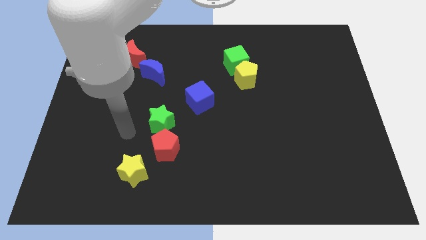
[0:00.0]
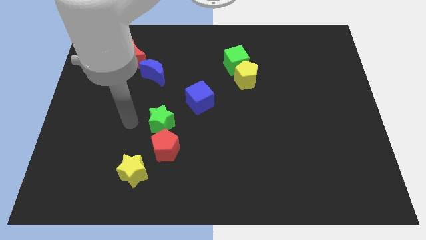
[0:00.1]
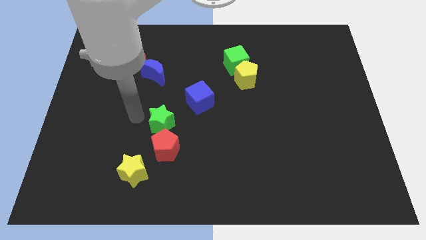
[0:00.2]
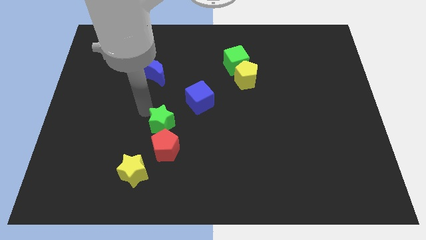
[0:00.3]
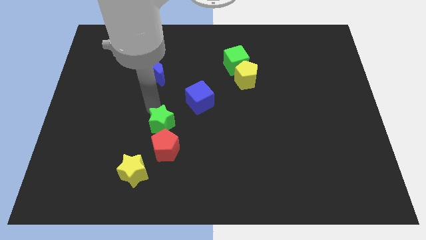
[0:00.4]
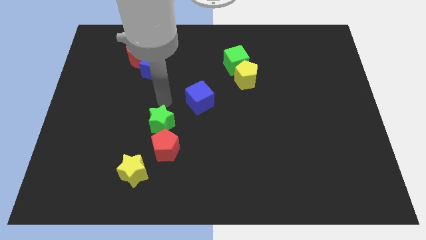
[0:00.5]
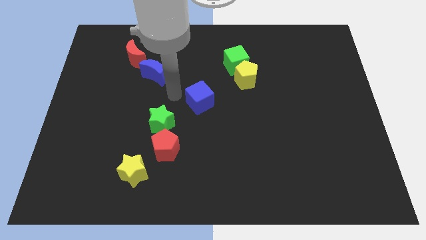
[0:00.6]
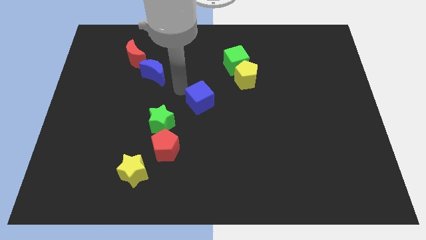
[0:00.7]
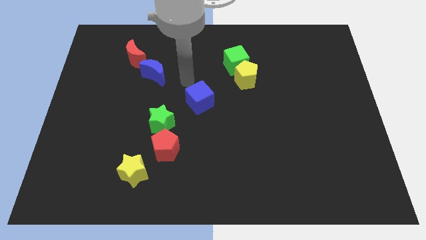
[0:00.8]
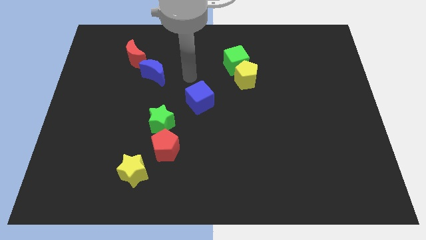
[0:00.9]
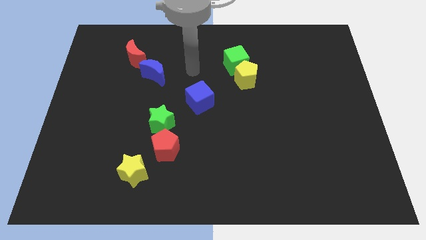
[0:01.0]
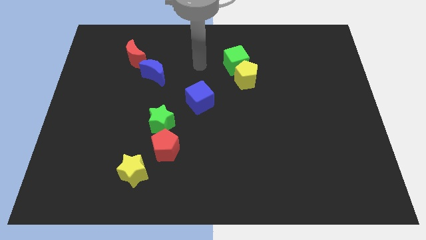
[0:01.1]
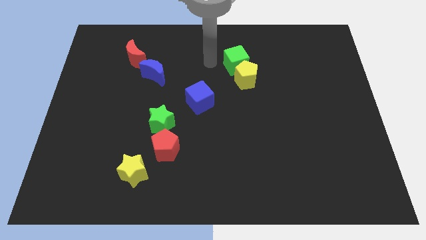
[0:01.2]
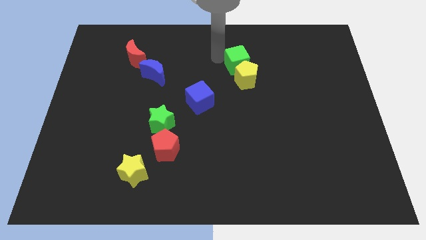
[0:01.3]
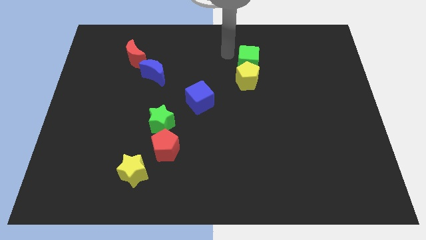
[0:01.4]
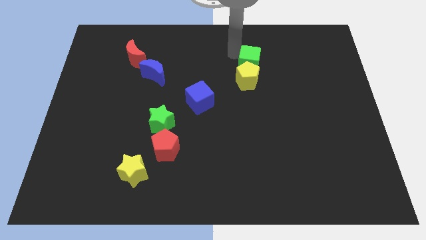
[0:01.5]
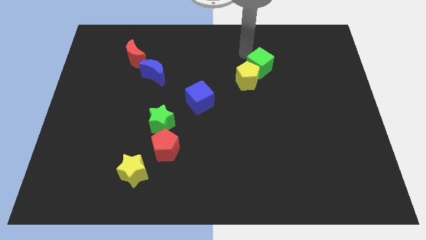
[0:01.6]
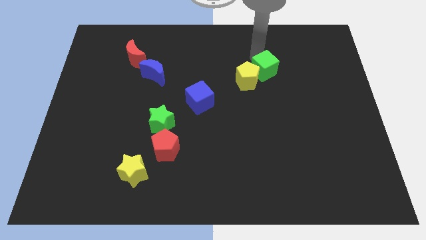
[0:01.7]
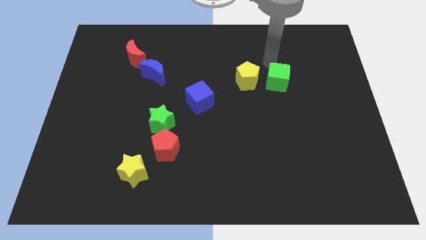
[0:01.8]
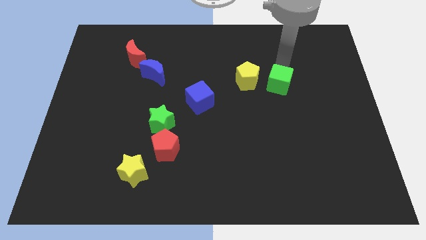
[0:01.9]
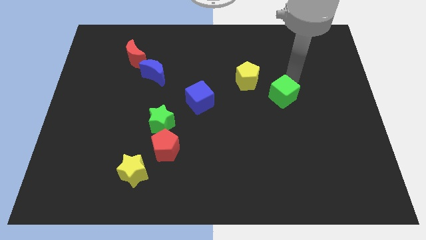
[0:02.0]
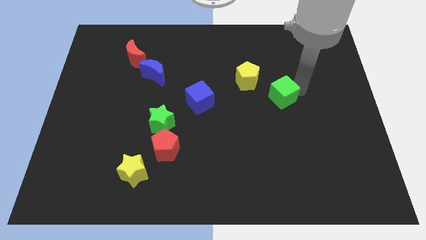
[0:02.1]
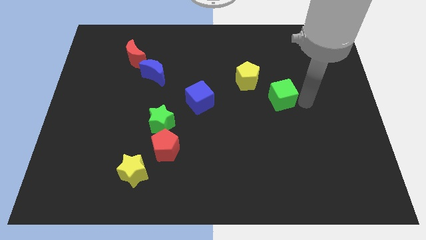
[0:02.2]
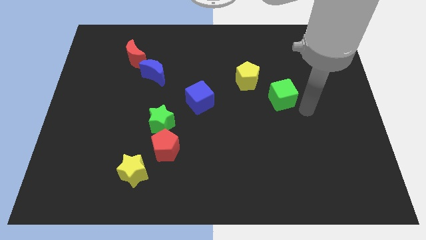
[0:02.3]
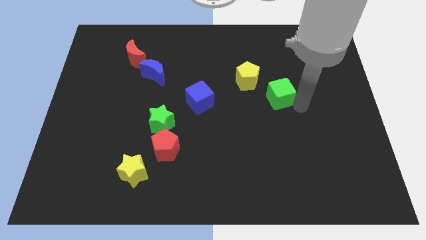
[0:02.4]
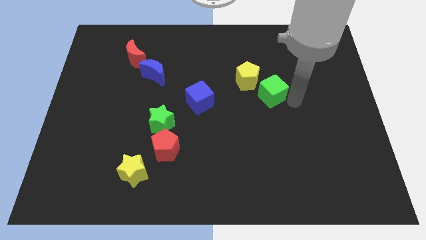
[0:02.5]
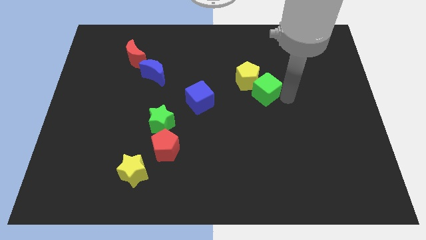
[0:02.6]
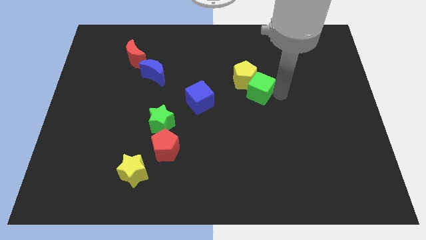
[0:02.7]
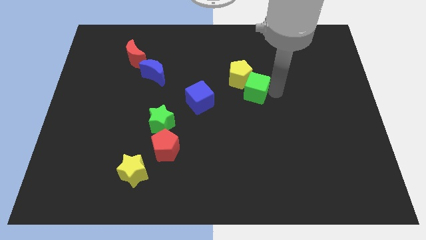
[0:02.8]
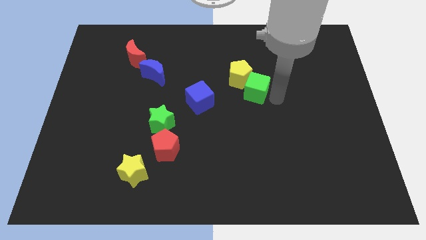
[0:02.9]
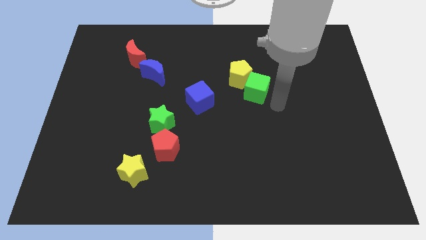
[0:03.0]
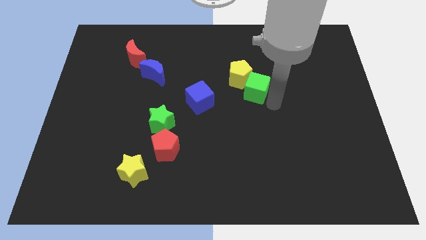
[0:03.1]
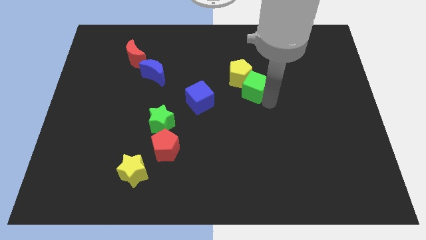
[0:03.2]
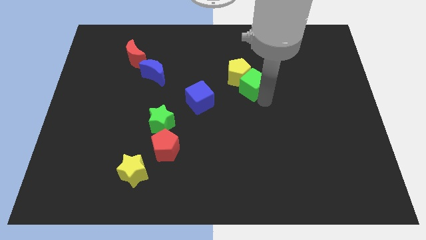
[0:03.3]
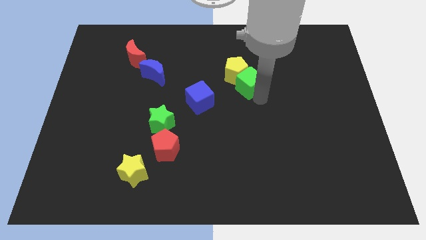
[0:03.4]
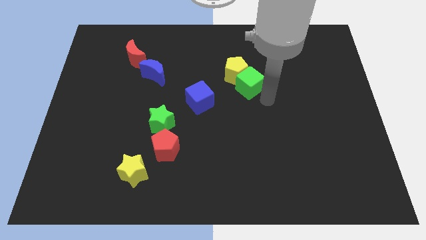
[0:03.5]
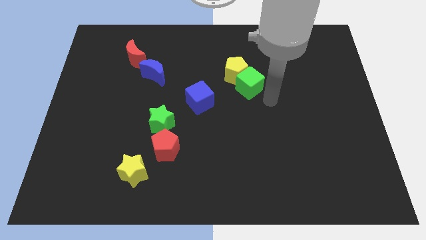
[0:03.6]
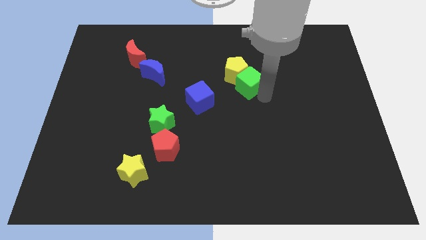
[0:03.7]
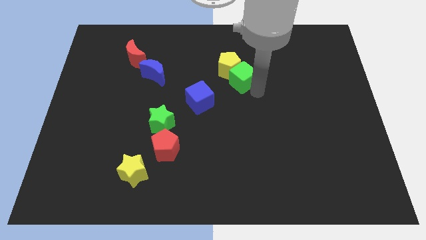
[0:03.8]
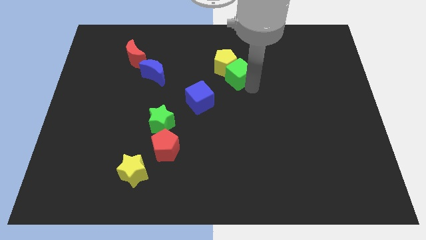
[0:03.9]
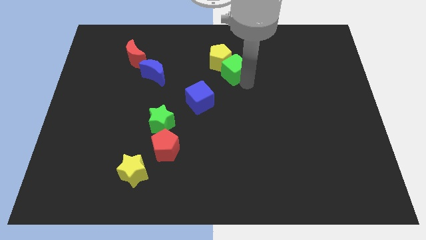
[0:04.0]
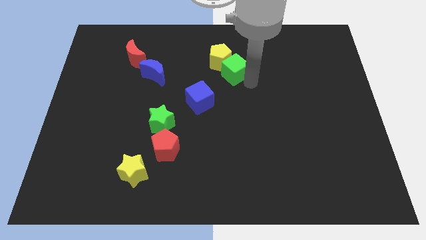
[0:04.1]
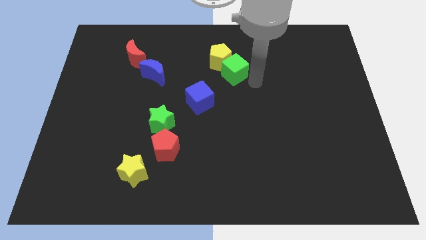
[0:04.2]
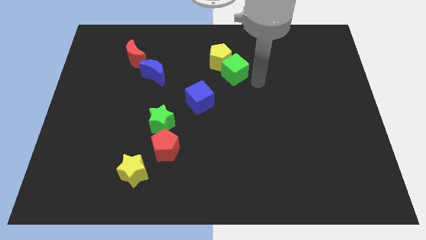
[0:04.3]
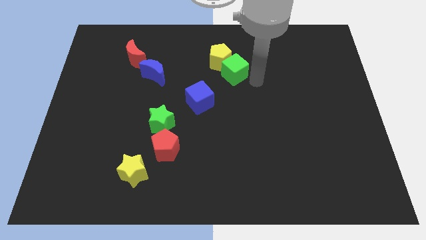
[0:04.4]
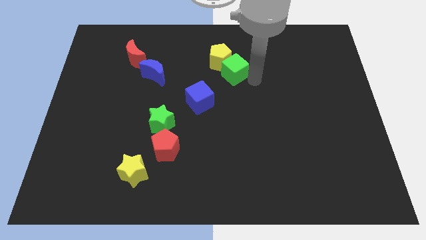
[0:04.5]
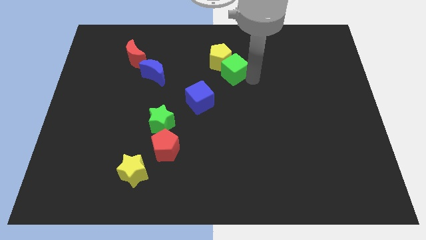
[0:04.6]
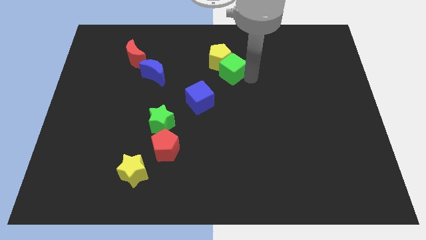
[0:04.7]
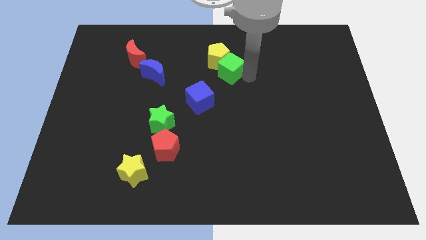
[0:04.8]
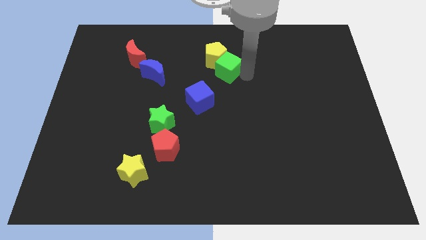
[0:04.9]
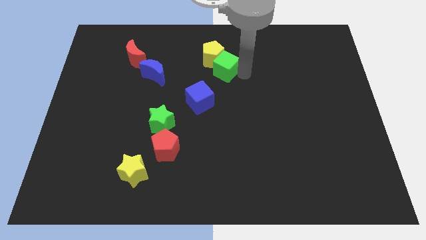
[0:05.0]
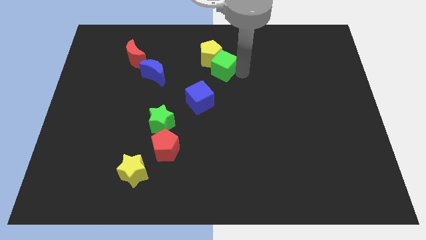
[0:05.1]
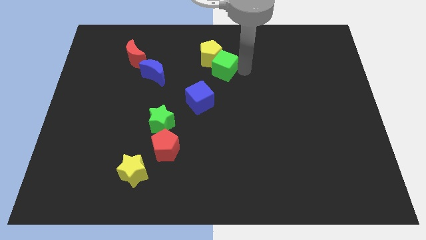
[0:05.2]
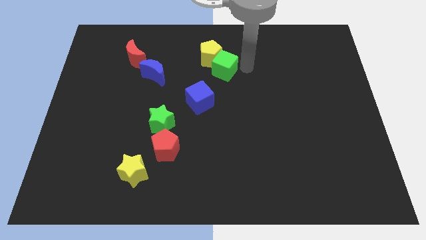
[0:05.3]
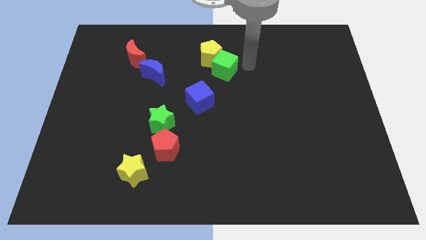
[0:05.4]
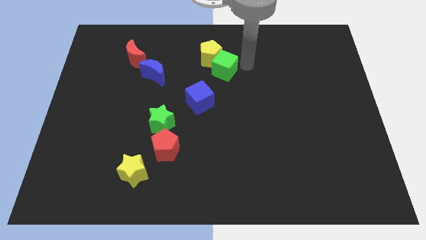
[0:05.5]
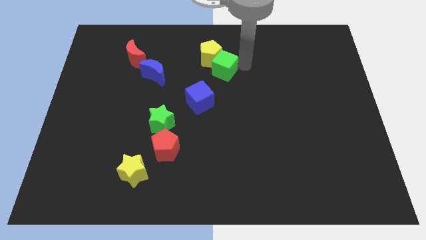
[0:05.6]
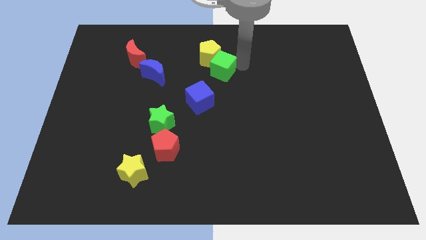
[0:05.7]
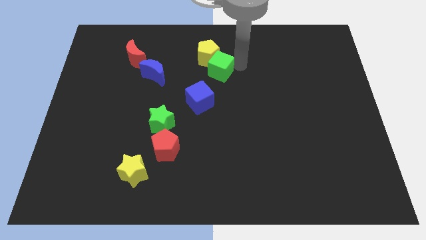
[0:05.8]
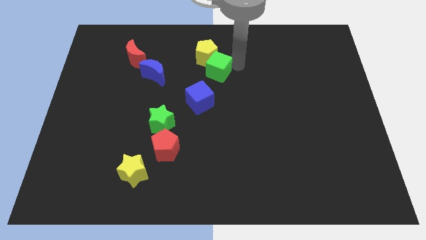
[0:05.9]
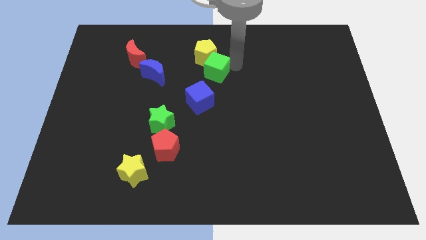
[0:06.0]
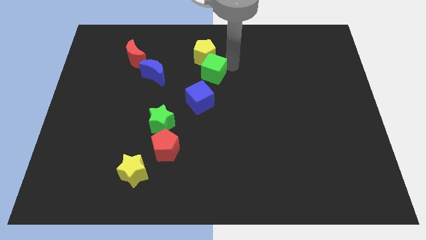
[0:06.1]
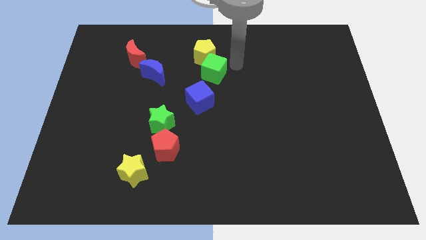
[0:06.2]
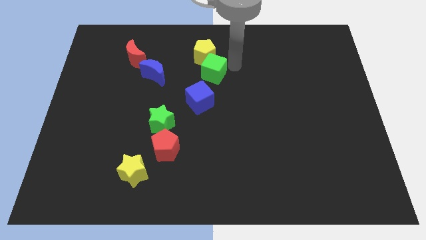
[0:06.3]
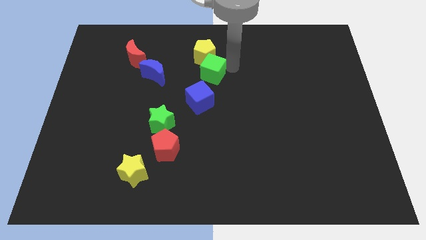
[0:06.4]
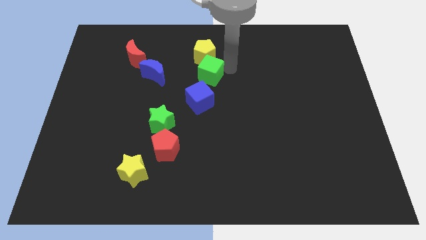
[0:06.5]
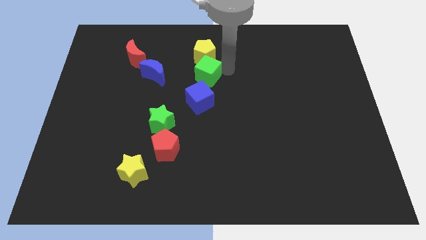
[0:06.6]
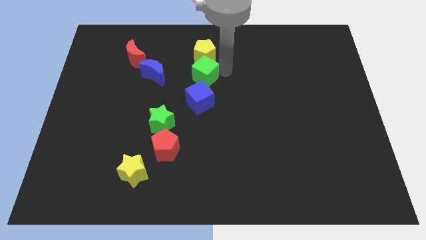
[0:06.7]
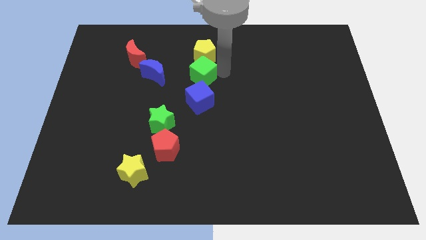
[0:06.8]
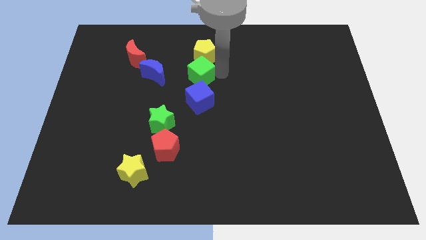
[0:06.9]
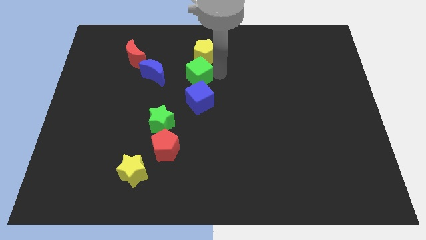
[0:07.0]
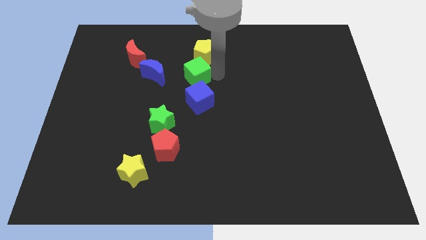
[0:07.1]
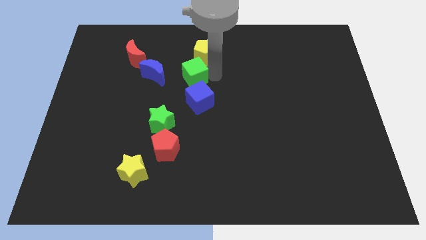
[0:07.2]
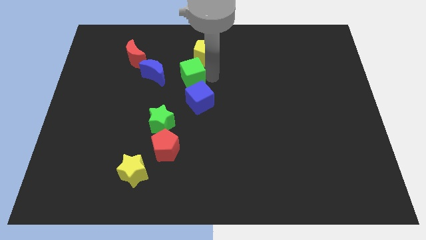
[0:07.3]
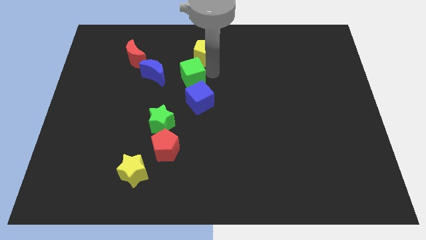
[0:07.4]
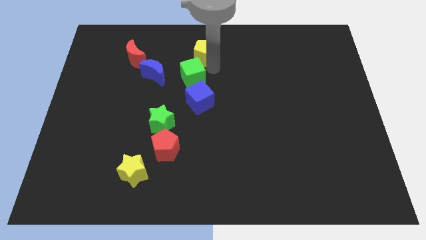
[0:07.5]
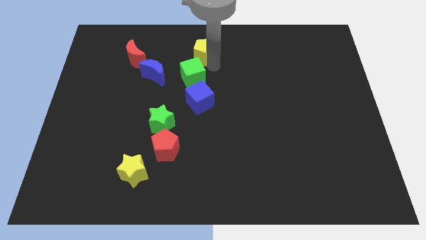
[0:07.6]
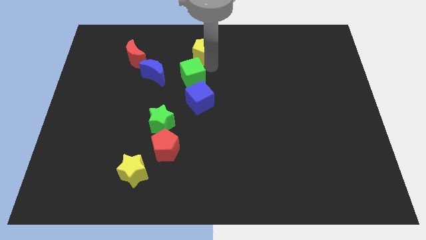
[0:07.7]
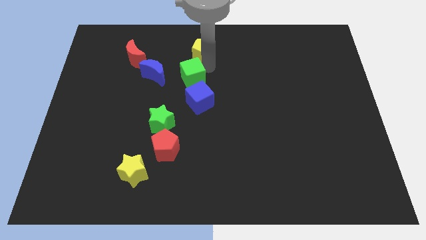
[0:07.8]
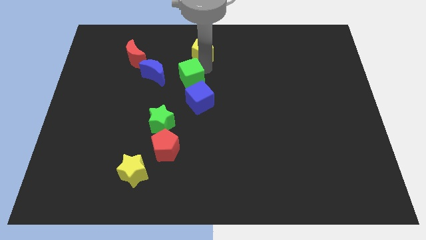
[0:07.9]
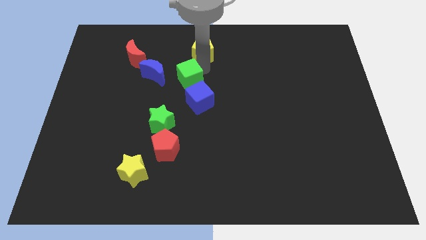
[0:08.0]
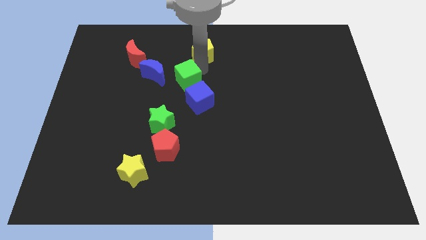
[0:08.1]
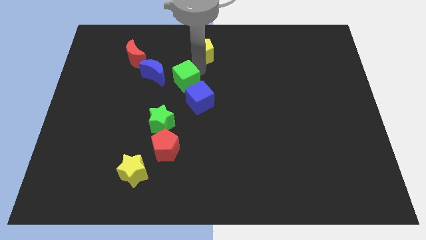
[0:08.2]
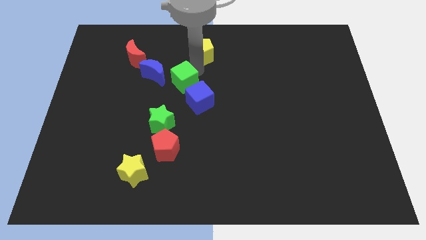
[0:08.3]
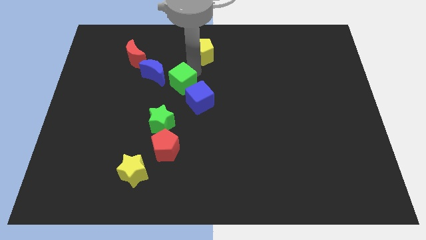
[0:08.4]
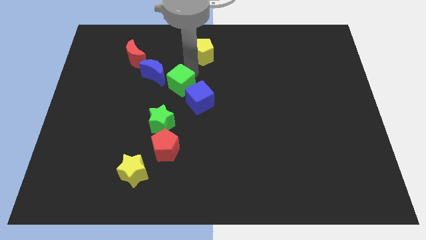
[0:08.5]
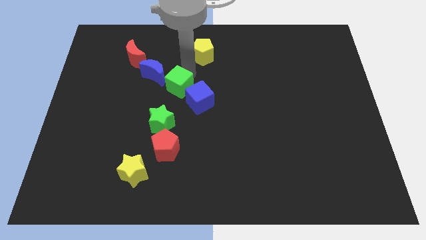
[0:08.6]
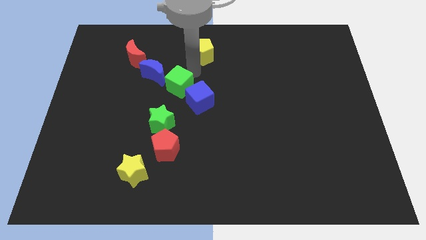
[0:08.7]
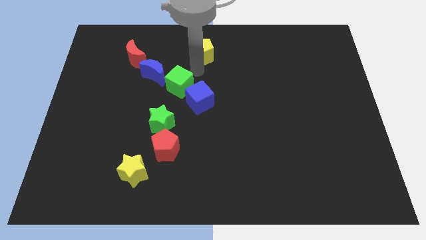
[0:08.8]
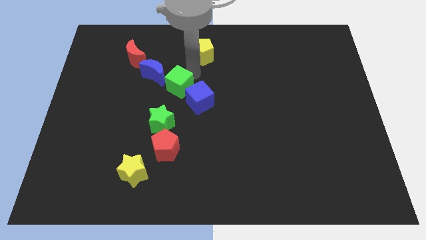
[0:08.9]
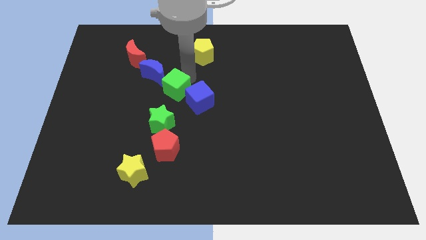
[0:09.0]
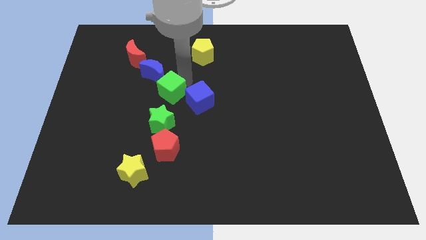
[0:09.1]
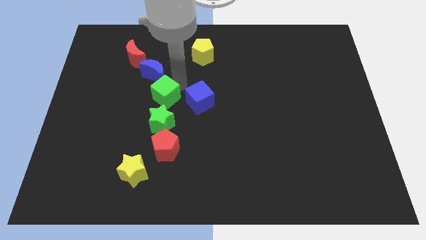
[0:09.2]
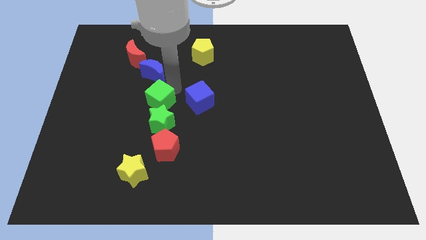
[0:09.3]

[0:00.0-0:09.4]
push the green cube diagonally down and to the left
